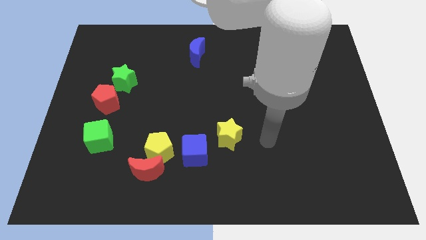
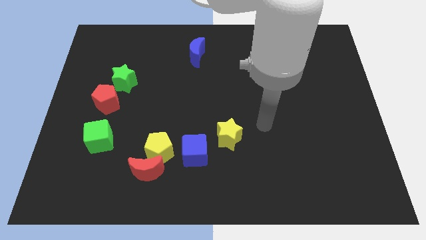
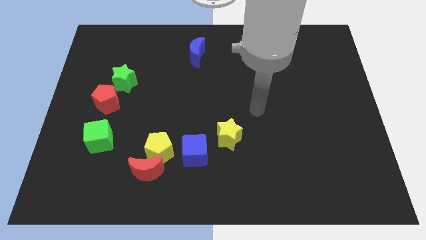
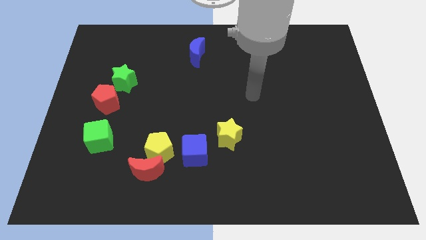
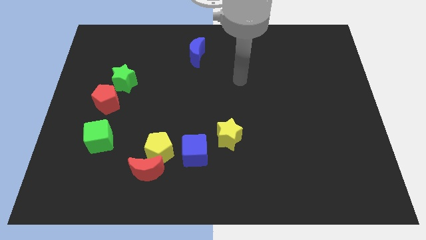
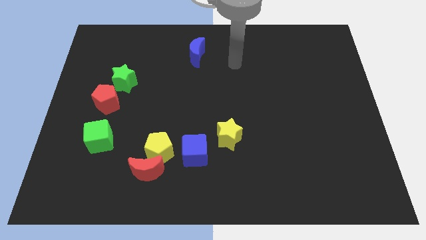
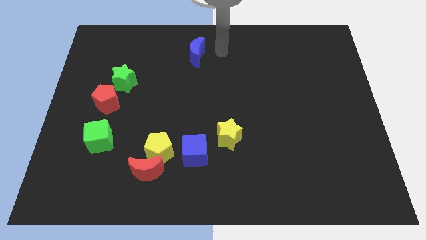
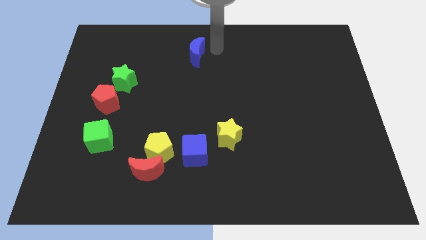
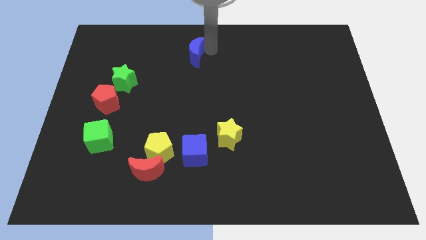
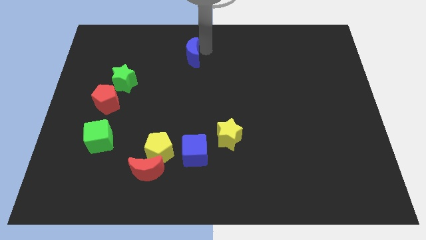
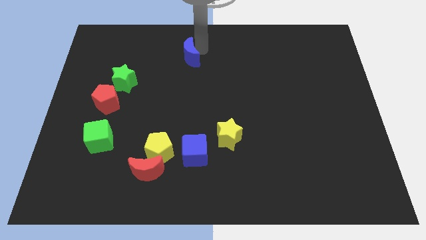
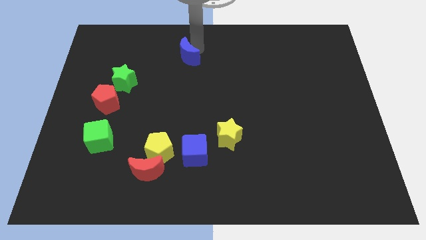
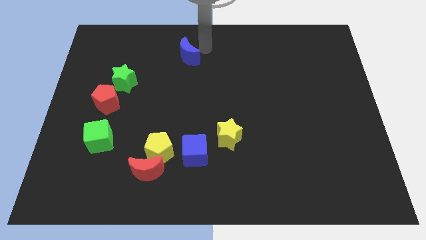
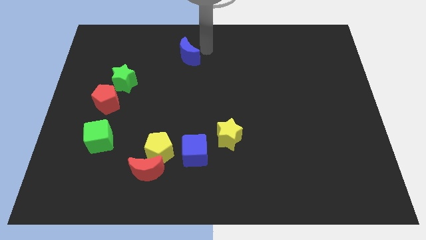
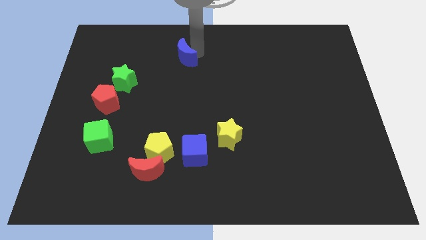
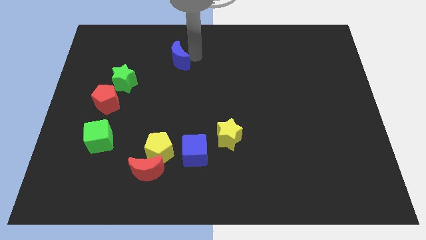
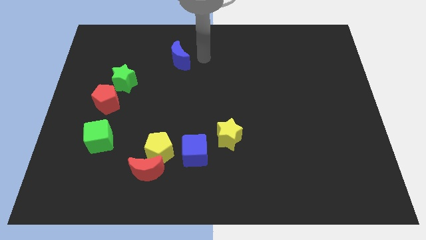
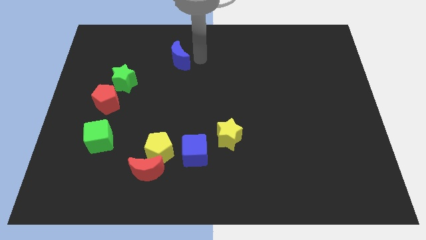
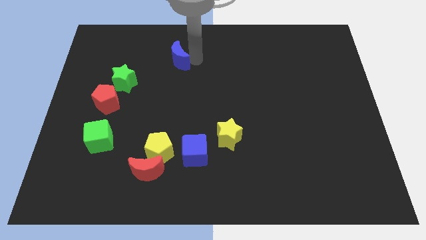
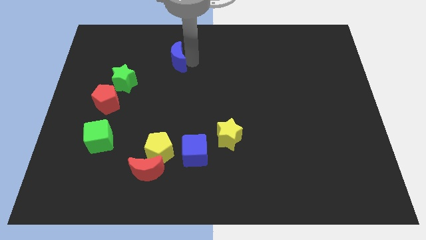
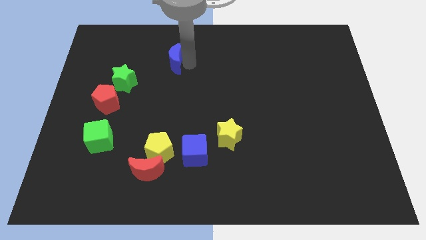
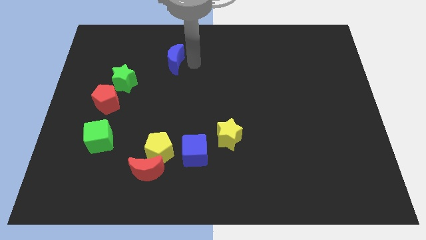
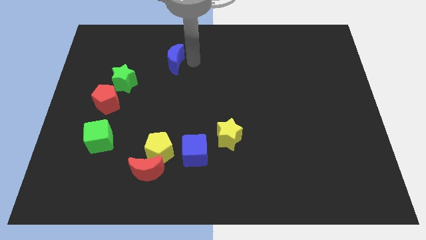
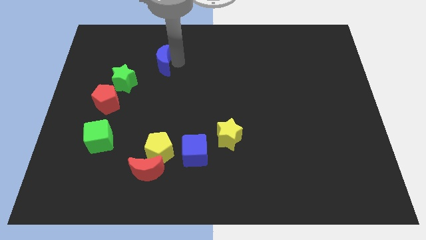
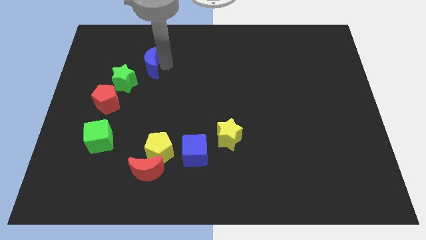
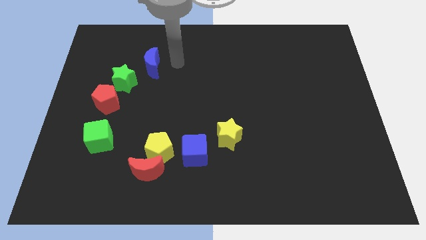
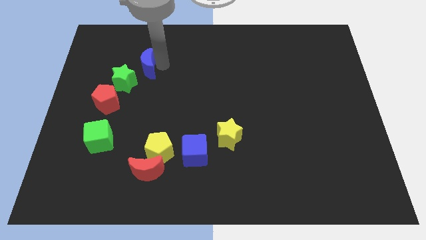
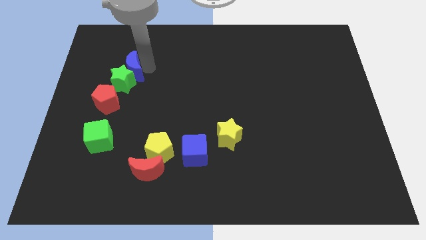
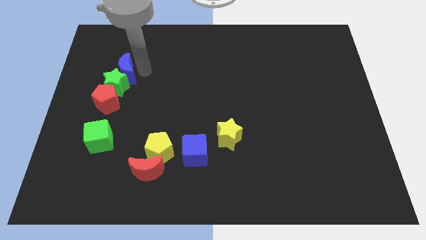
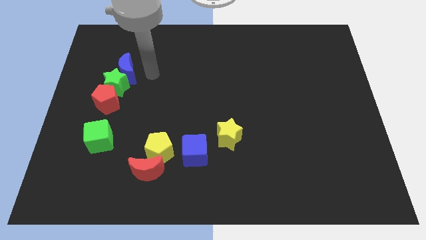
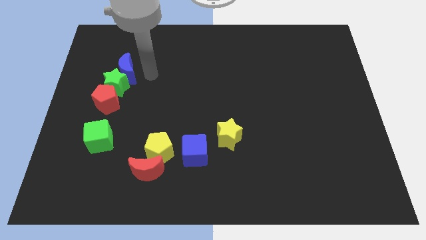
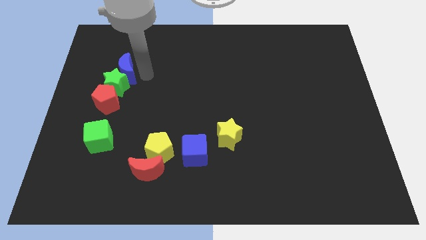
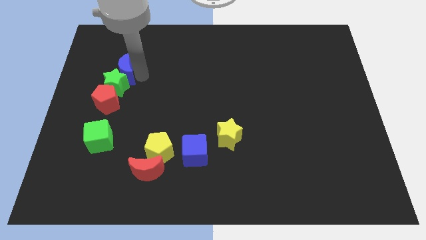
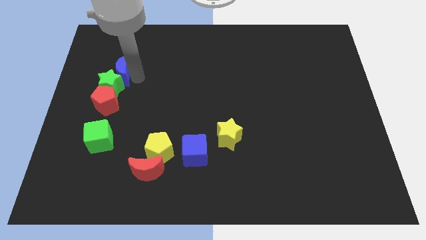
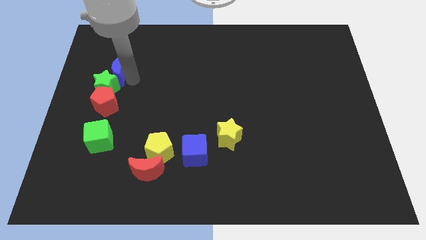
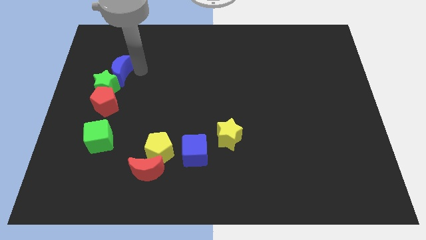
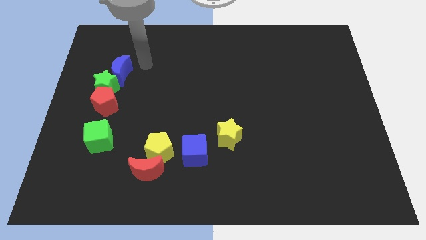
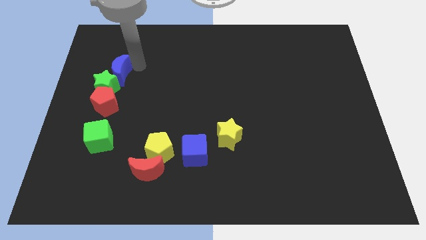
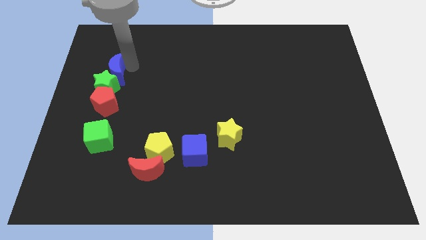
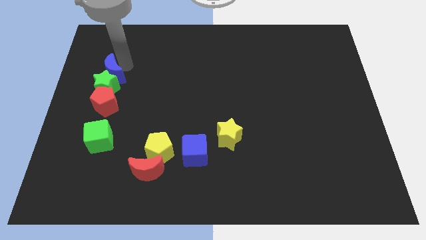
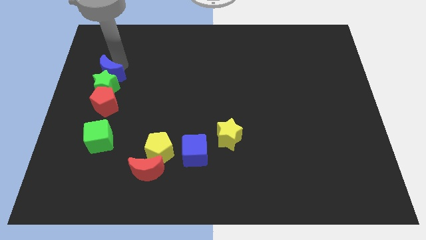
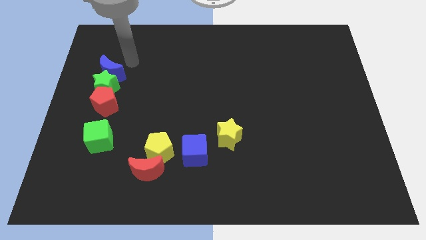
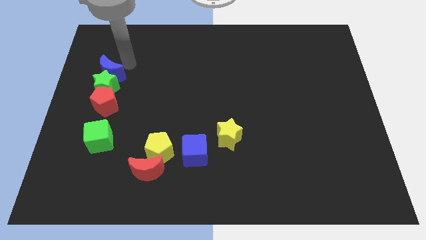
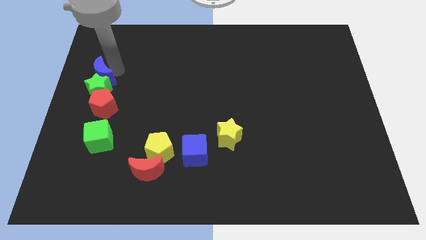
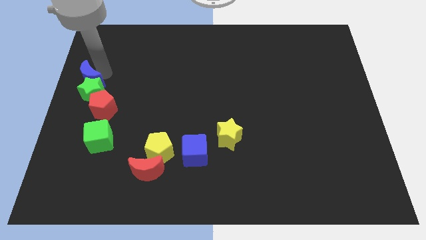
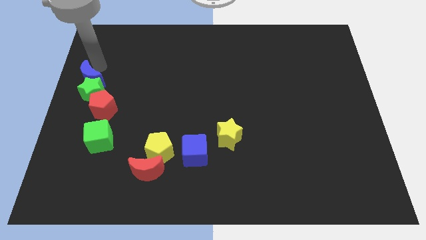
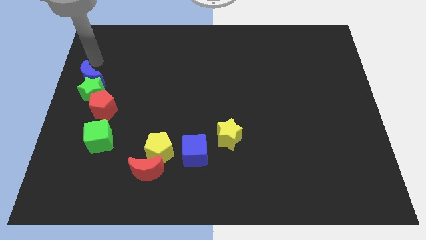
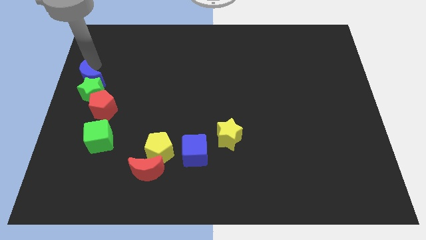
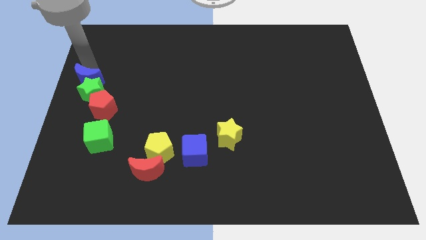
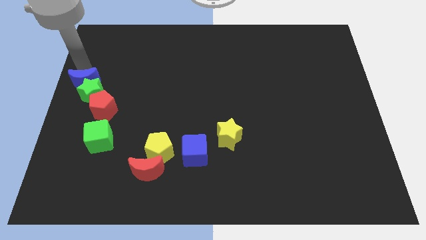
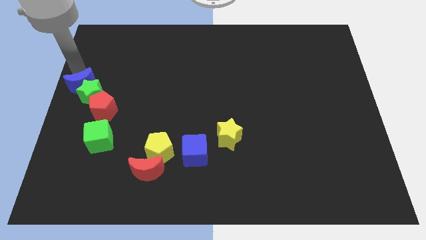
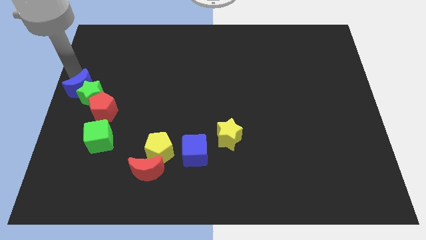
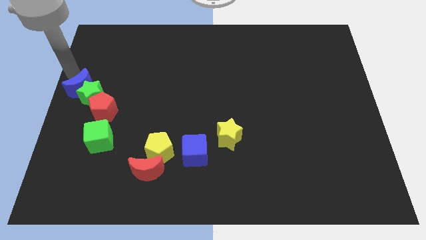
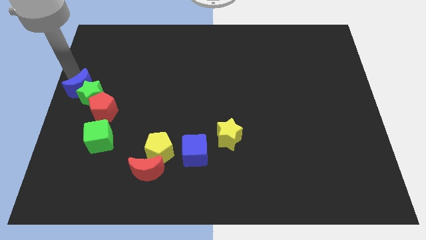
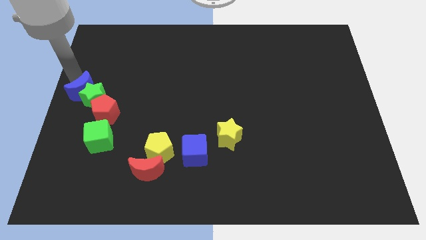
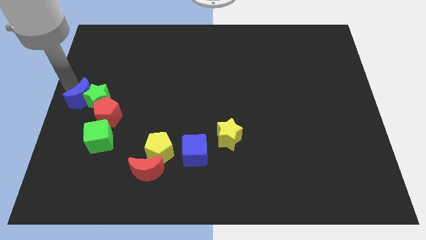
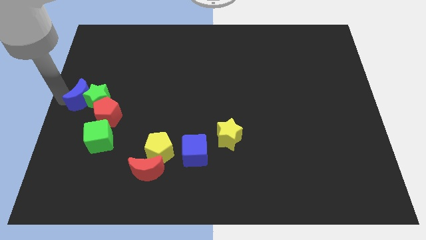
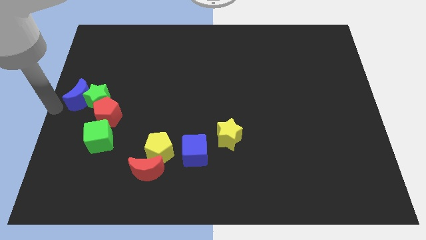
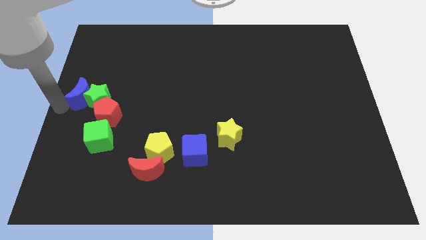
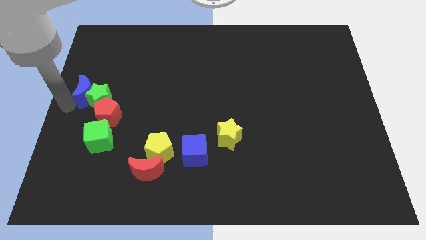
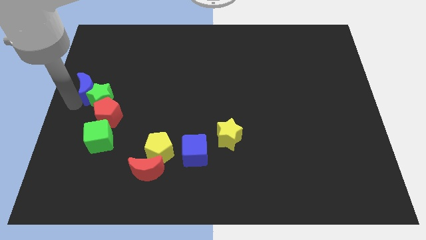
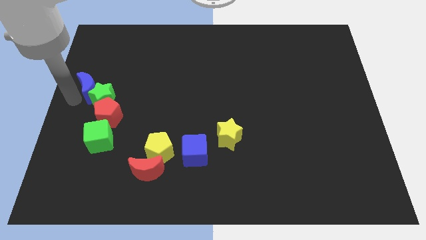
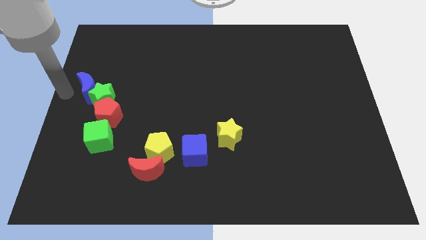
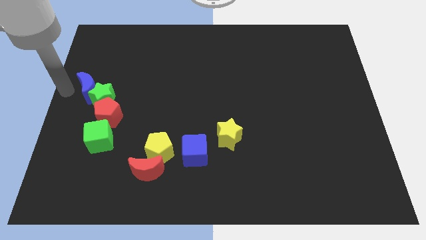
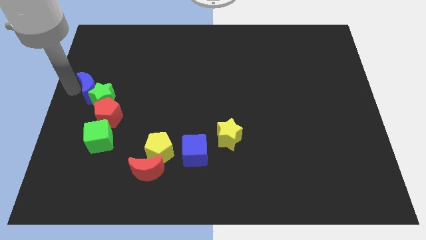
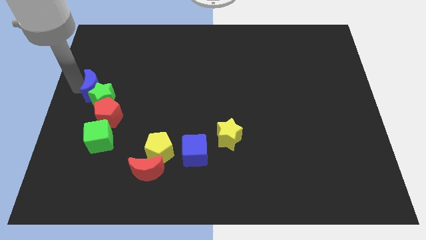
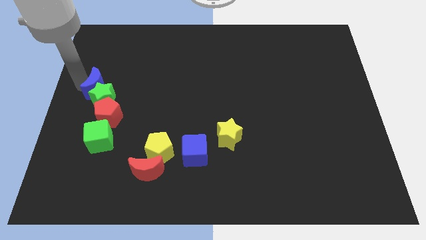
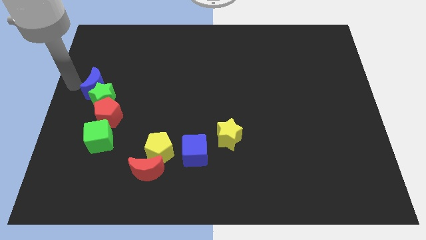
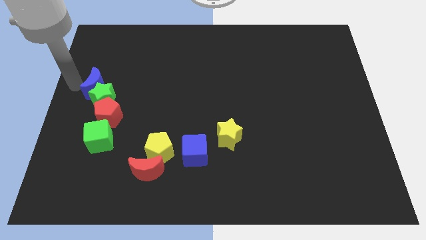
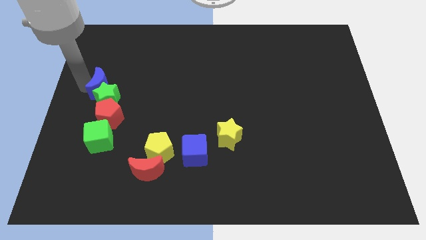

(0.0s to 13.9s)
move the blue moon above the green cube

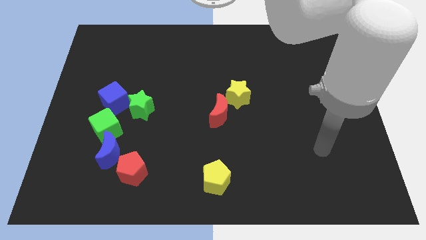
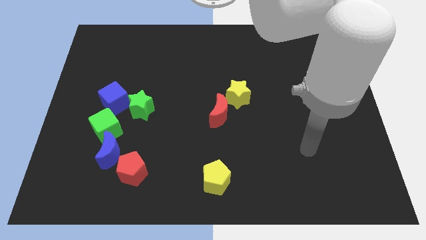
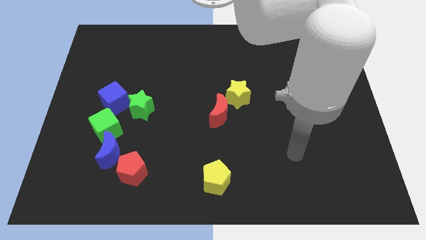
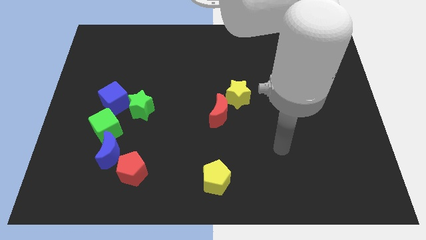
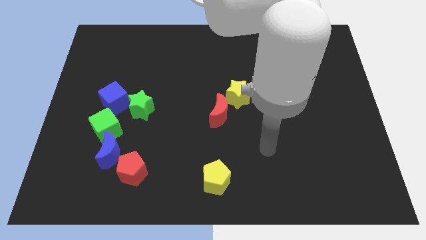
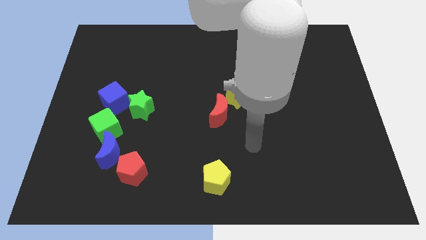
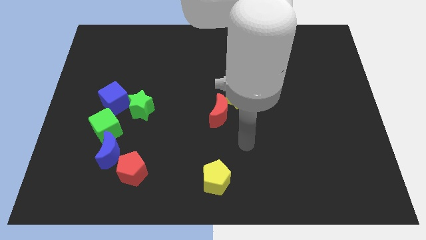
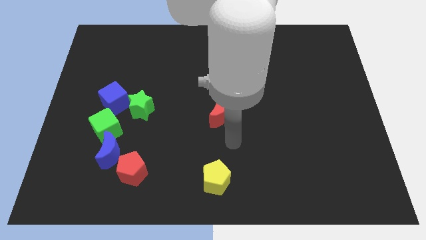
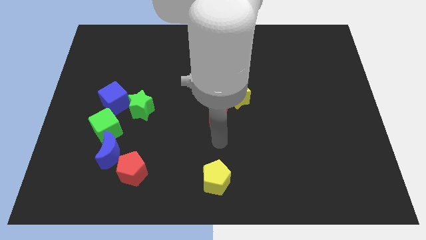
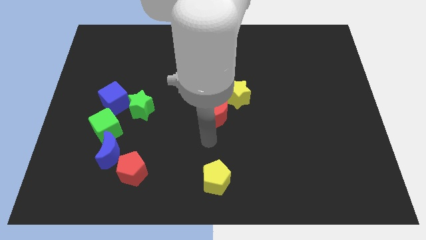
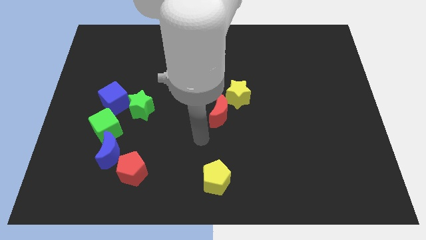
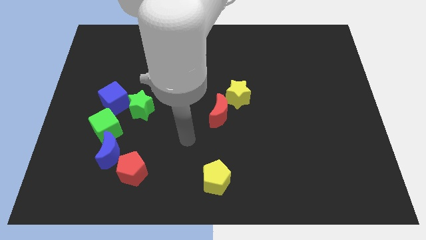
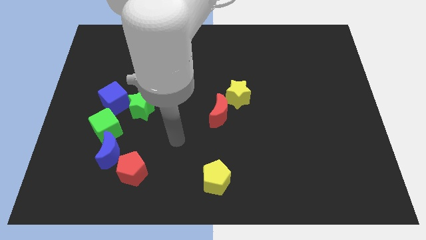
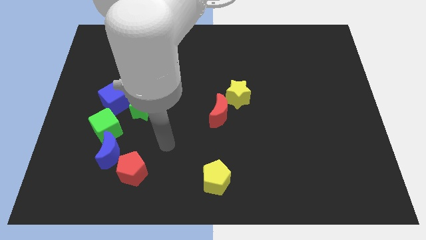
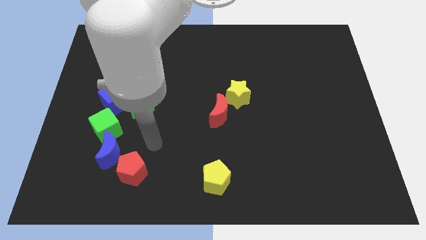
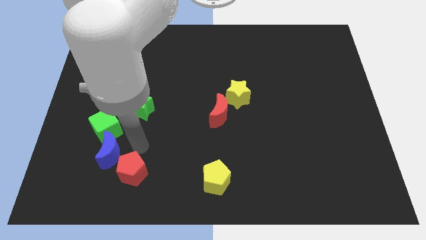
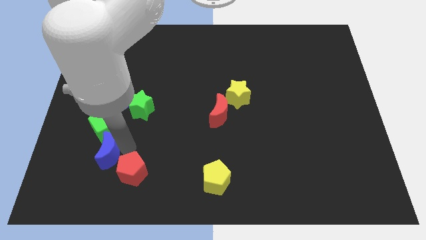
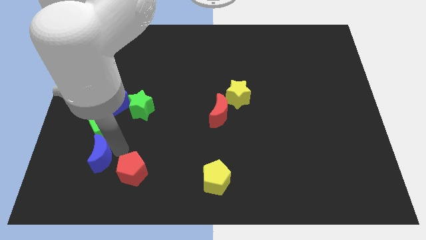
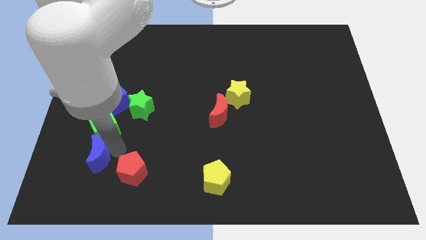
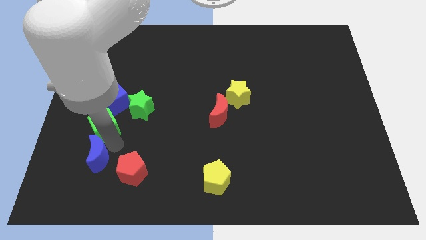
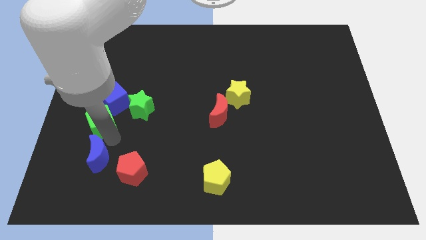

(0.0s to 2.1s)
slide the green cube just left of the green star
